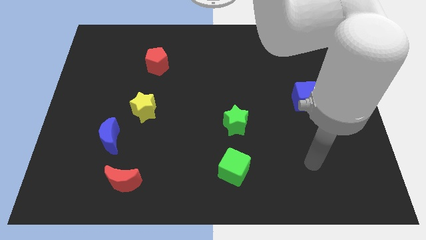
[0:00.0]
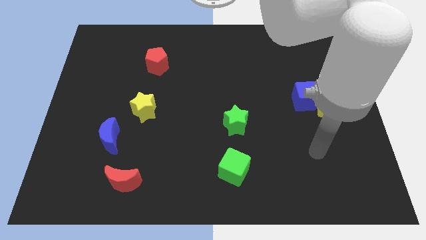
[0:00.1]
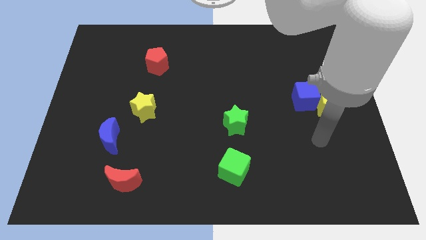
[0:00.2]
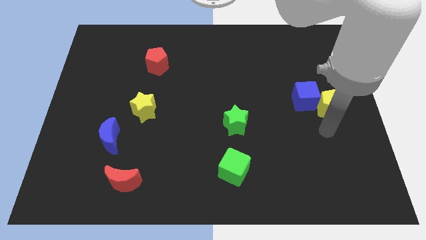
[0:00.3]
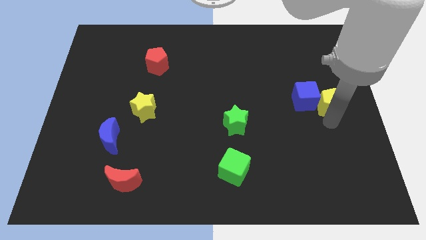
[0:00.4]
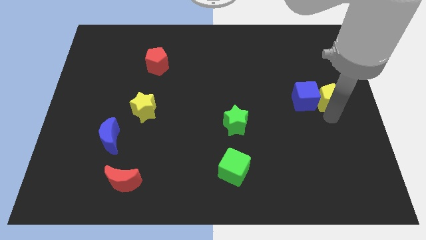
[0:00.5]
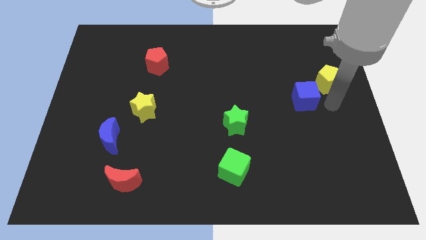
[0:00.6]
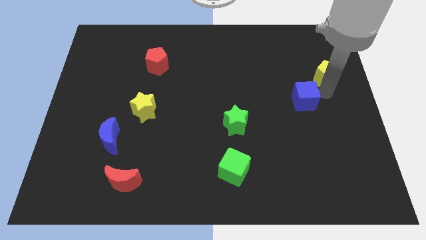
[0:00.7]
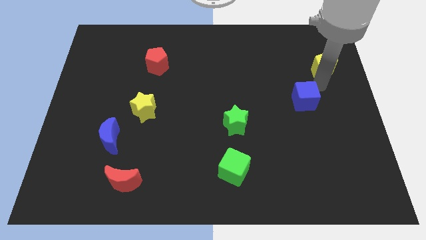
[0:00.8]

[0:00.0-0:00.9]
pull the blue cube apart from the yellow pentagon

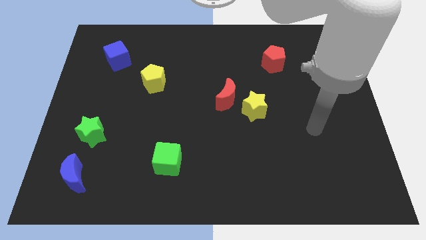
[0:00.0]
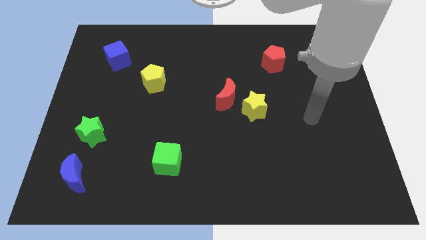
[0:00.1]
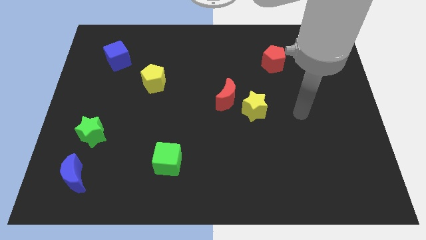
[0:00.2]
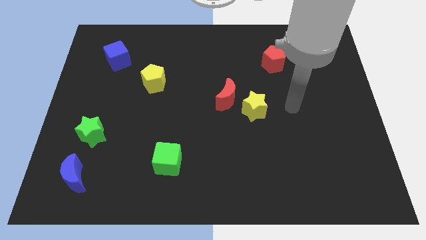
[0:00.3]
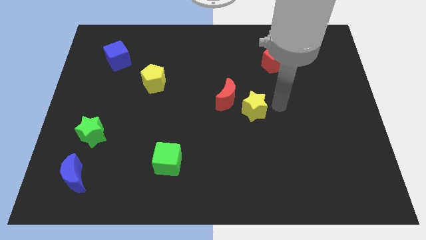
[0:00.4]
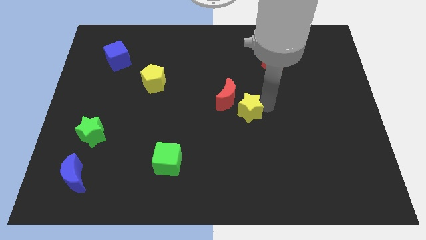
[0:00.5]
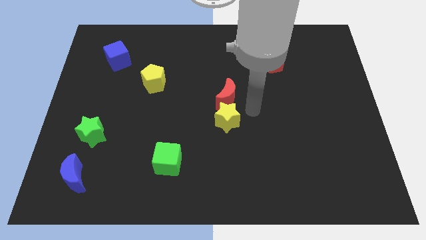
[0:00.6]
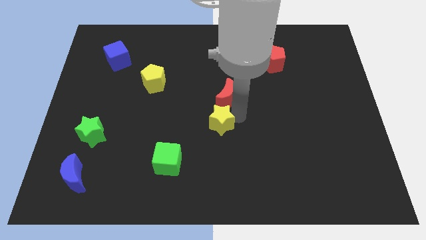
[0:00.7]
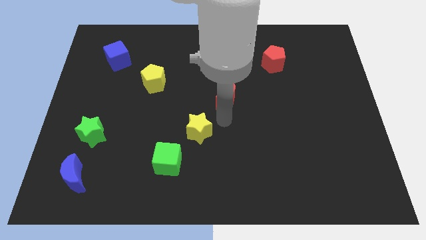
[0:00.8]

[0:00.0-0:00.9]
separate the red moon from the yellow star

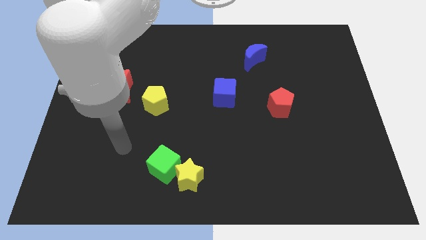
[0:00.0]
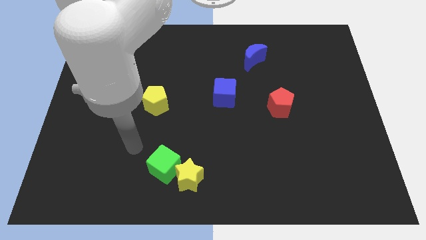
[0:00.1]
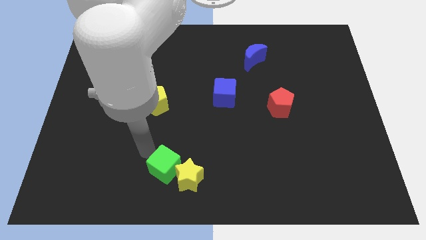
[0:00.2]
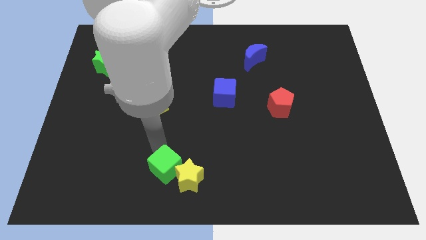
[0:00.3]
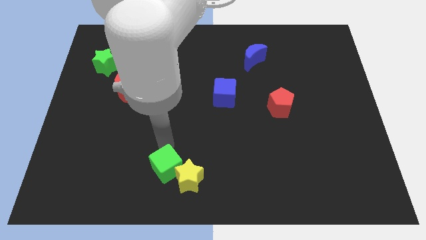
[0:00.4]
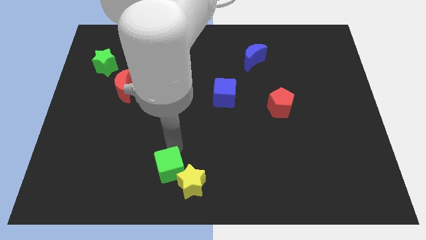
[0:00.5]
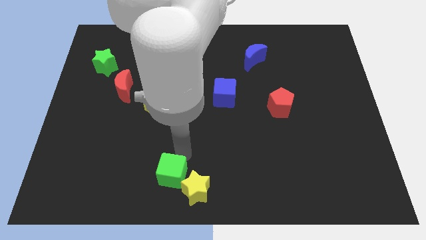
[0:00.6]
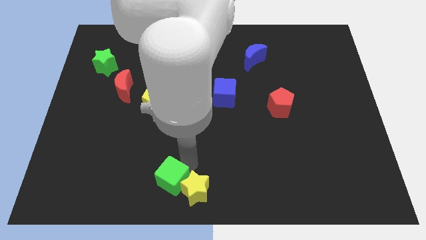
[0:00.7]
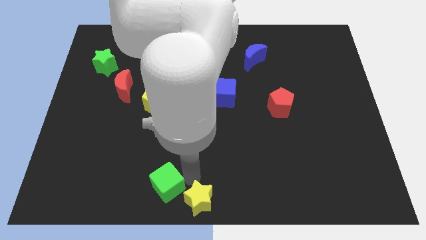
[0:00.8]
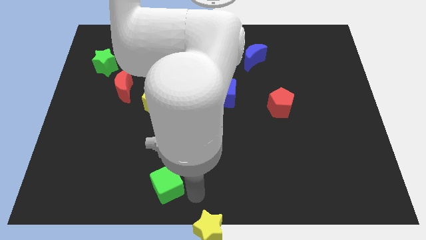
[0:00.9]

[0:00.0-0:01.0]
pull the green cube apart from the yellow star

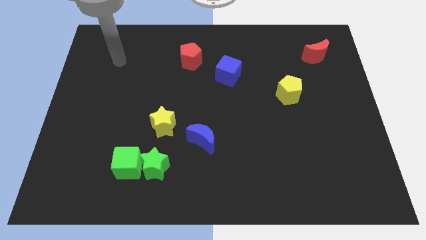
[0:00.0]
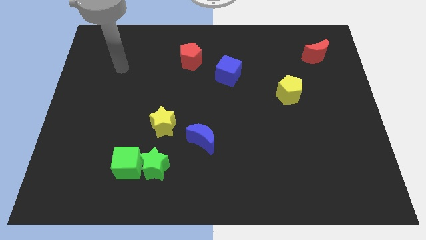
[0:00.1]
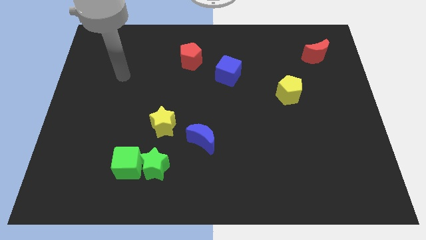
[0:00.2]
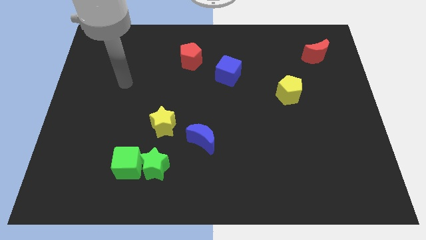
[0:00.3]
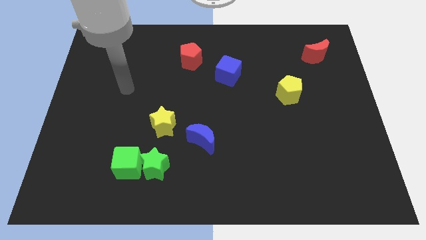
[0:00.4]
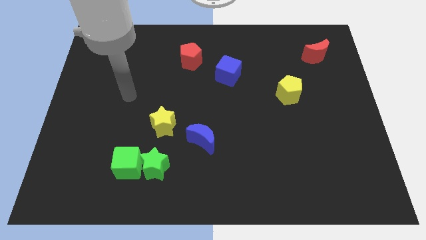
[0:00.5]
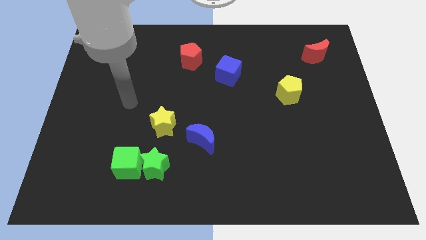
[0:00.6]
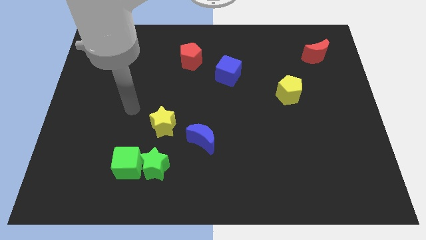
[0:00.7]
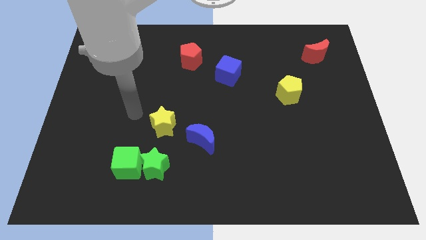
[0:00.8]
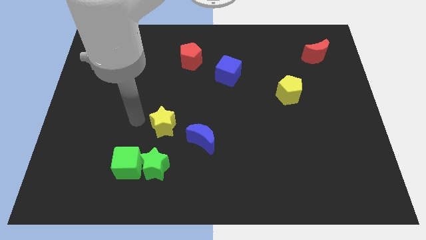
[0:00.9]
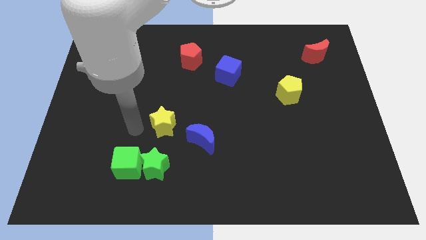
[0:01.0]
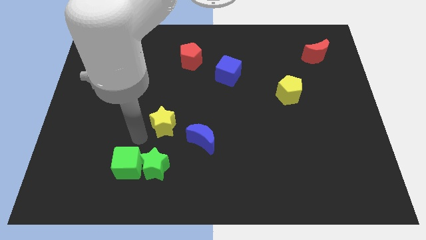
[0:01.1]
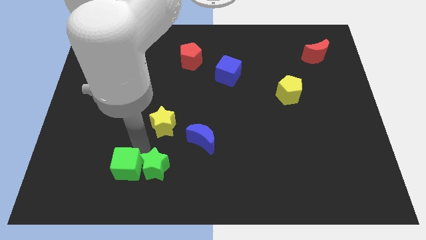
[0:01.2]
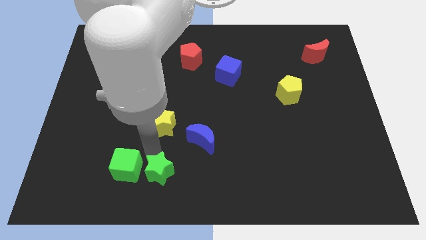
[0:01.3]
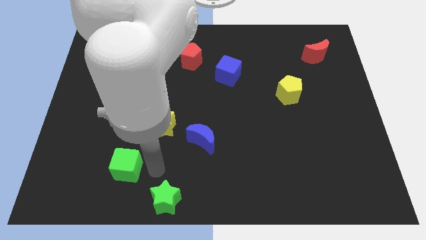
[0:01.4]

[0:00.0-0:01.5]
pull the green cube apart from the green star

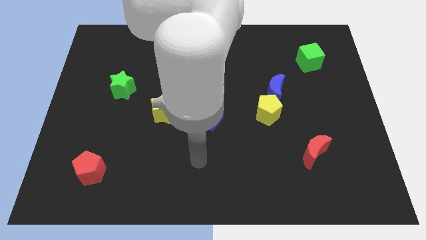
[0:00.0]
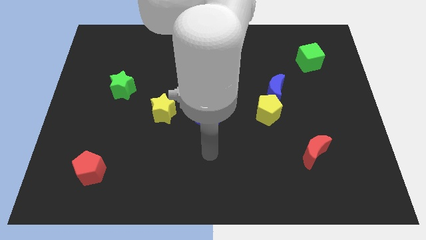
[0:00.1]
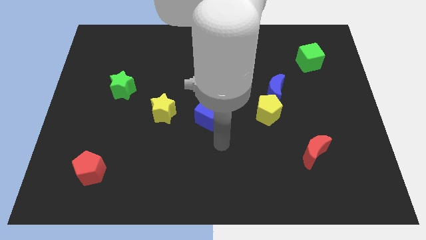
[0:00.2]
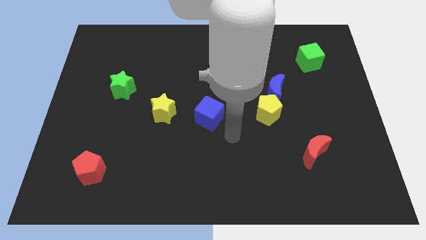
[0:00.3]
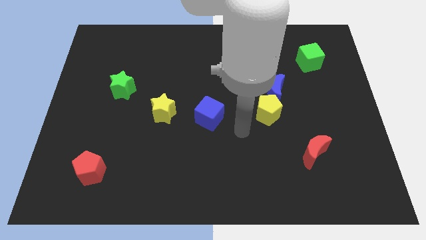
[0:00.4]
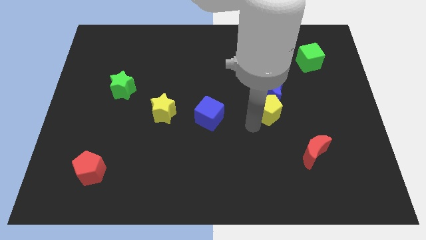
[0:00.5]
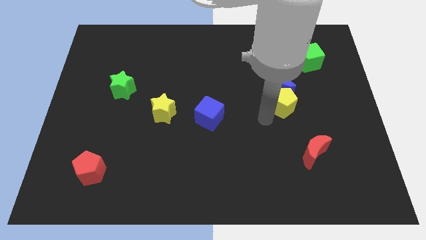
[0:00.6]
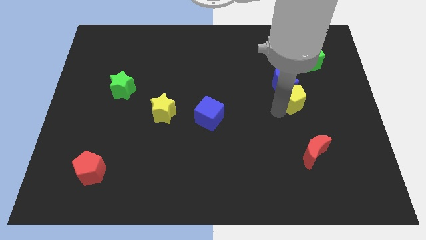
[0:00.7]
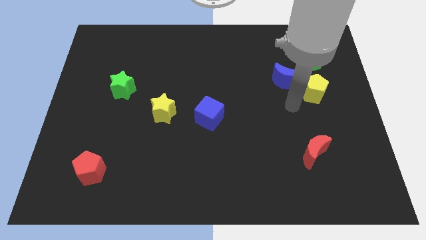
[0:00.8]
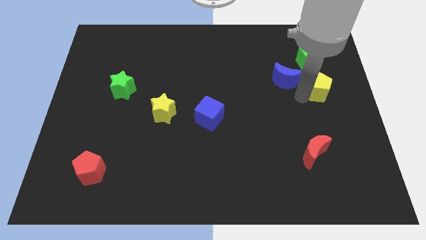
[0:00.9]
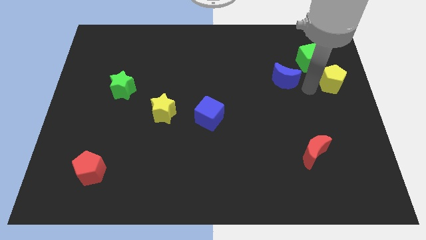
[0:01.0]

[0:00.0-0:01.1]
separate the blue moon from the yellow pentagon

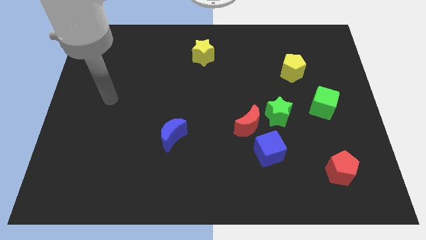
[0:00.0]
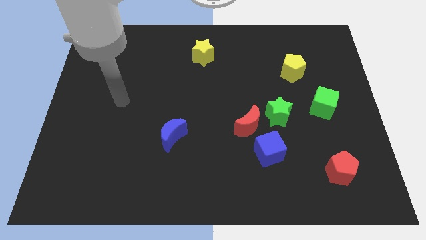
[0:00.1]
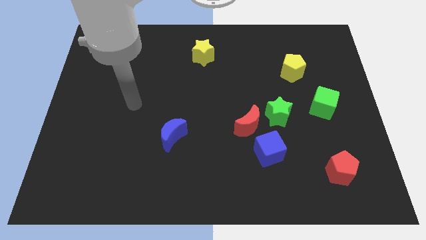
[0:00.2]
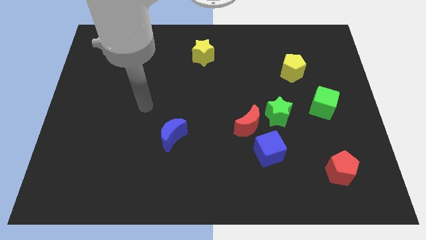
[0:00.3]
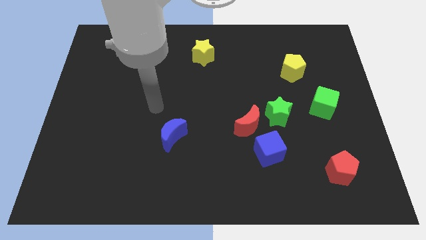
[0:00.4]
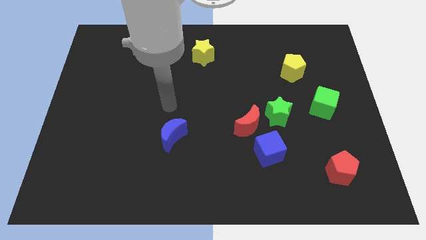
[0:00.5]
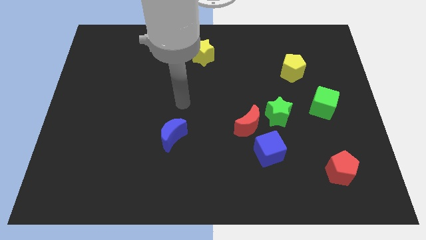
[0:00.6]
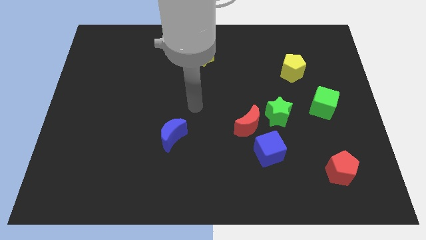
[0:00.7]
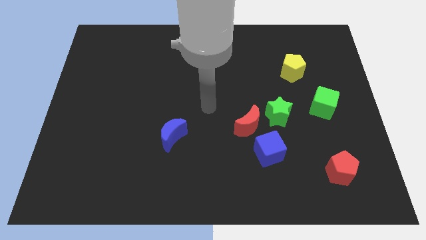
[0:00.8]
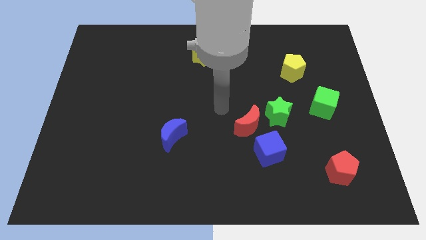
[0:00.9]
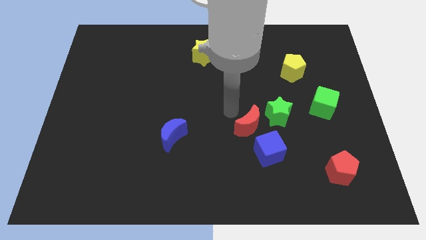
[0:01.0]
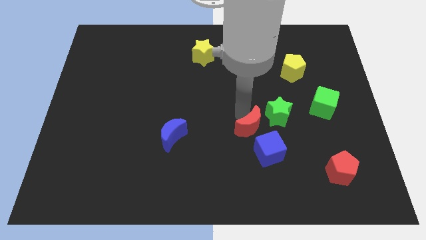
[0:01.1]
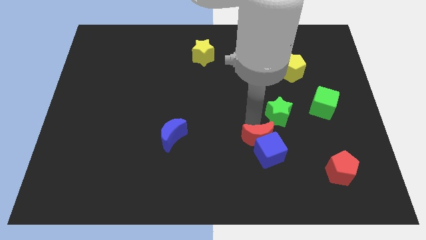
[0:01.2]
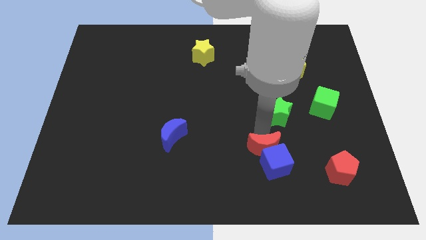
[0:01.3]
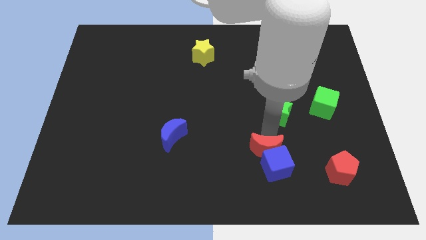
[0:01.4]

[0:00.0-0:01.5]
separate the green star from the red moon

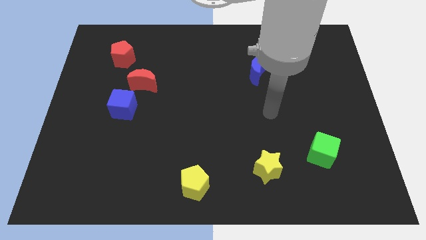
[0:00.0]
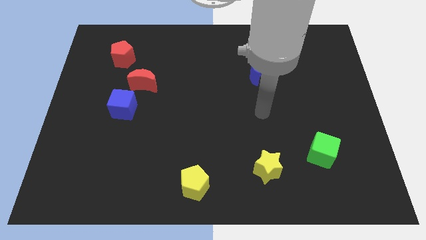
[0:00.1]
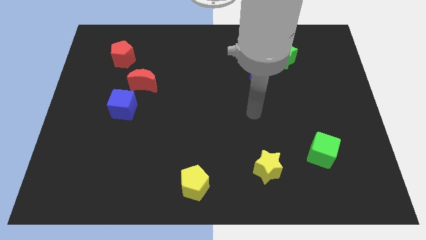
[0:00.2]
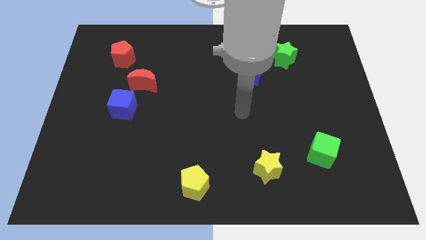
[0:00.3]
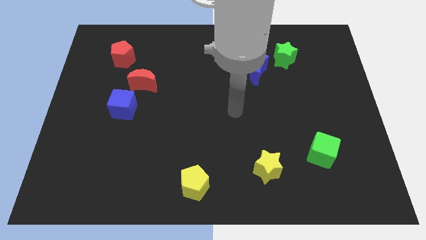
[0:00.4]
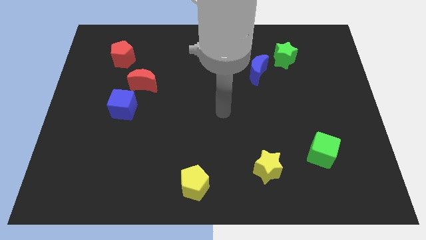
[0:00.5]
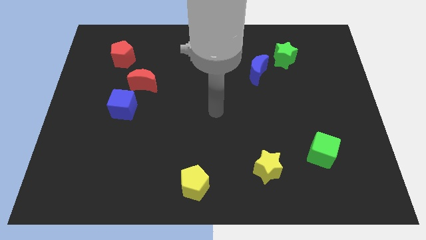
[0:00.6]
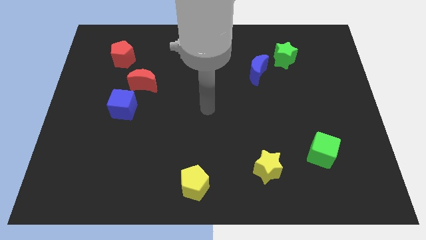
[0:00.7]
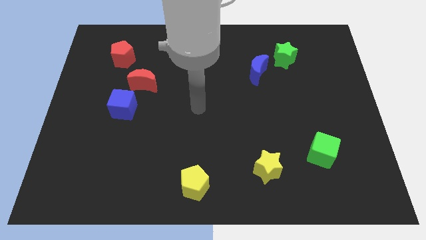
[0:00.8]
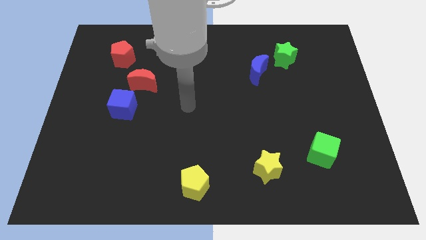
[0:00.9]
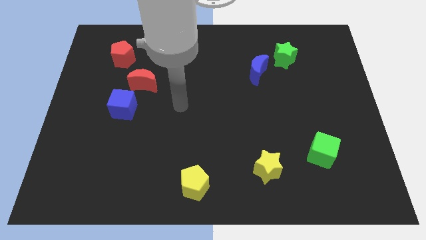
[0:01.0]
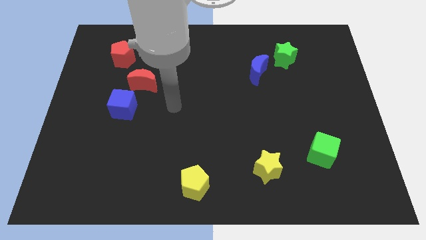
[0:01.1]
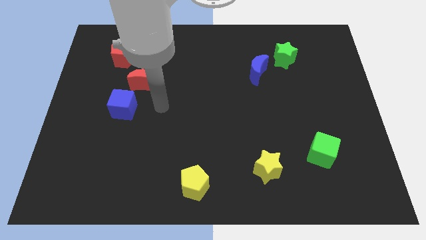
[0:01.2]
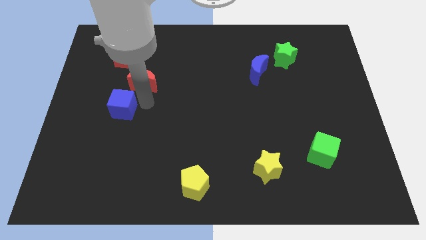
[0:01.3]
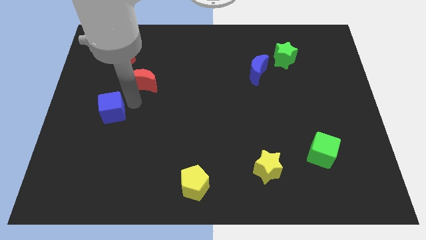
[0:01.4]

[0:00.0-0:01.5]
separate the red moon from the blue cube

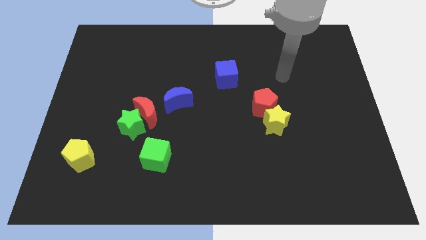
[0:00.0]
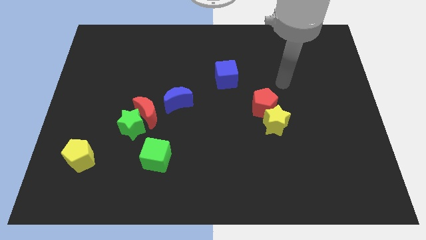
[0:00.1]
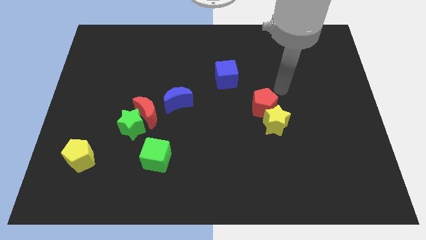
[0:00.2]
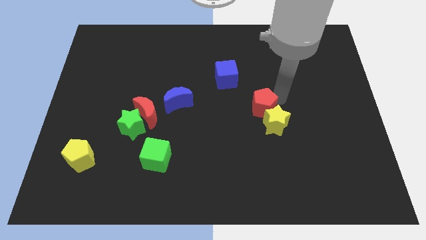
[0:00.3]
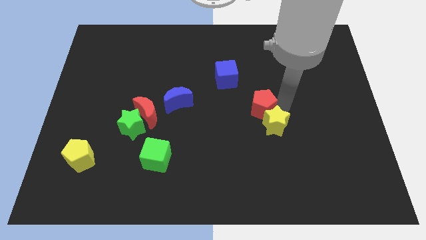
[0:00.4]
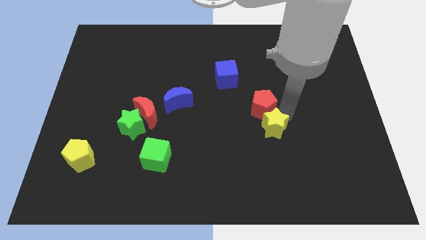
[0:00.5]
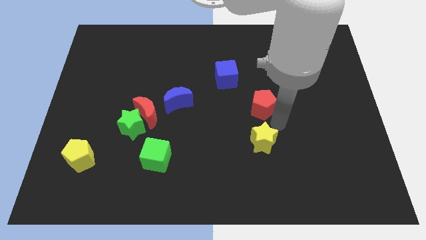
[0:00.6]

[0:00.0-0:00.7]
pull the red pentagon apart from the yellow star

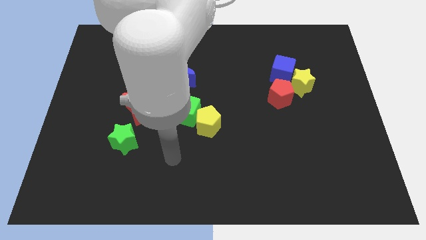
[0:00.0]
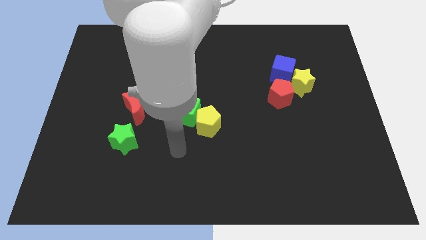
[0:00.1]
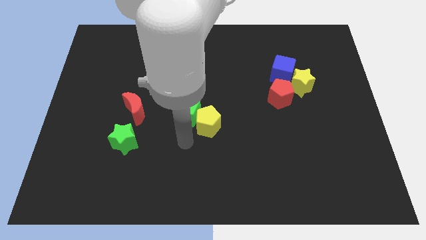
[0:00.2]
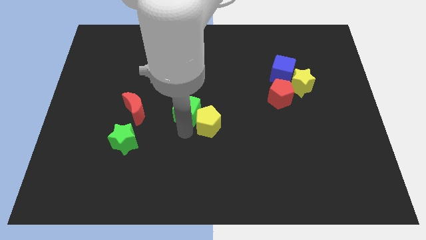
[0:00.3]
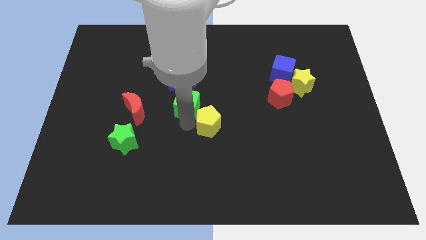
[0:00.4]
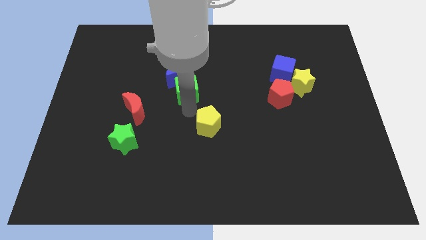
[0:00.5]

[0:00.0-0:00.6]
separate the yellow pentagon from the green cube
